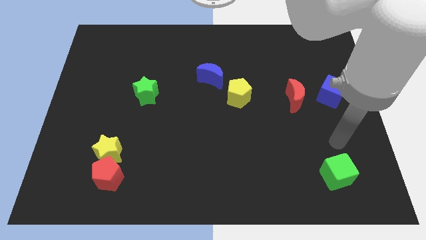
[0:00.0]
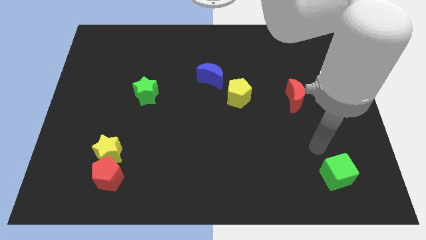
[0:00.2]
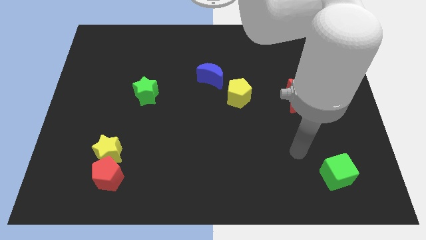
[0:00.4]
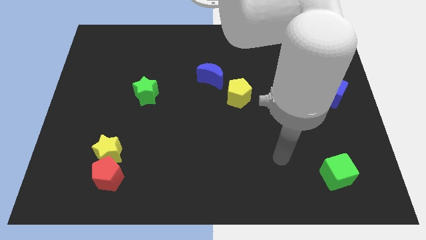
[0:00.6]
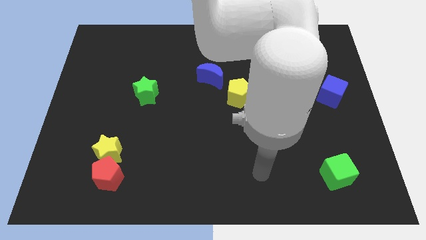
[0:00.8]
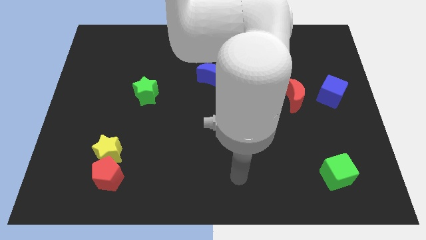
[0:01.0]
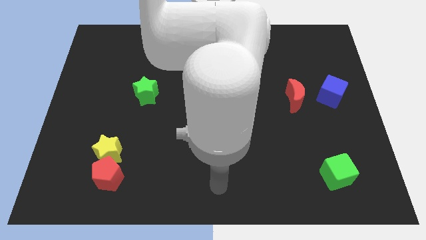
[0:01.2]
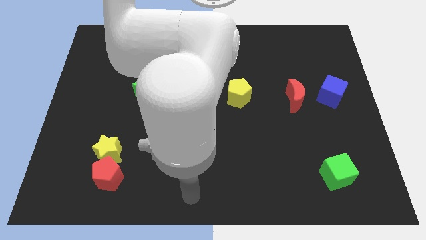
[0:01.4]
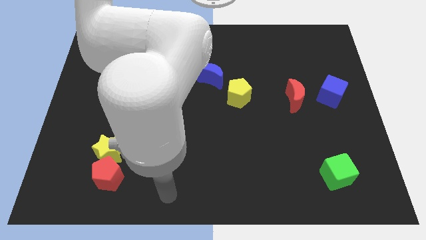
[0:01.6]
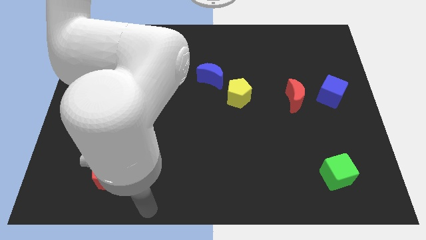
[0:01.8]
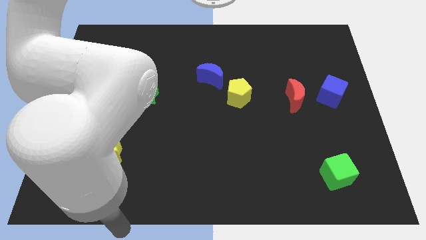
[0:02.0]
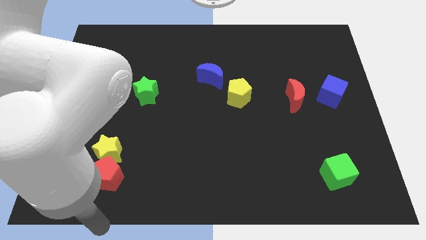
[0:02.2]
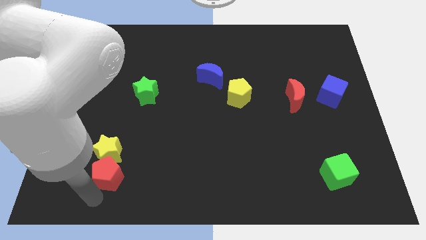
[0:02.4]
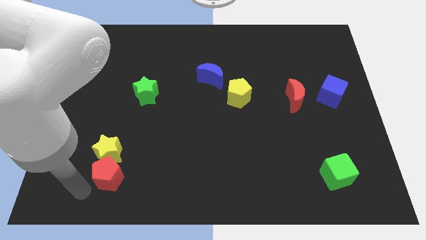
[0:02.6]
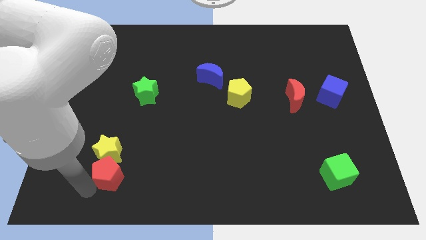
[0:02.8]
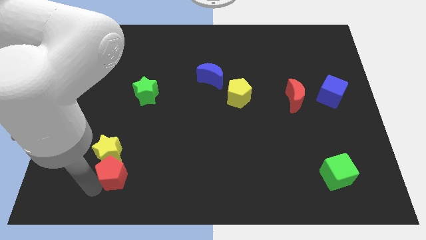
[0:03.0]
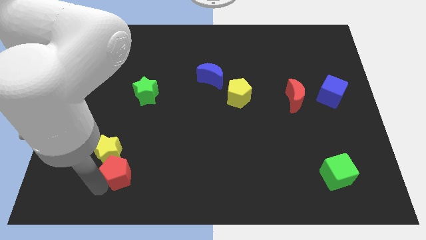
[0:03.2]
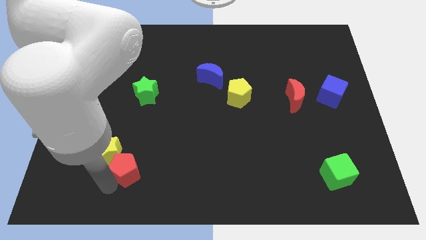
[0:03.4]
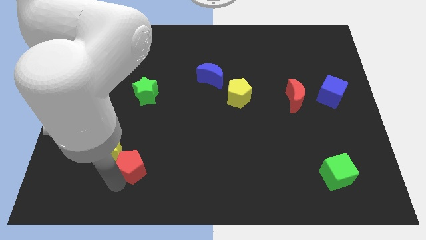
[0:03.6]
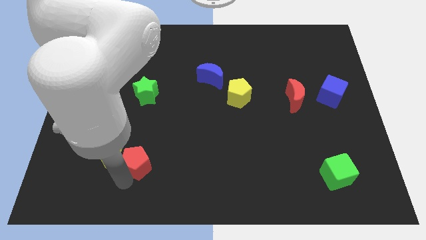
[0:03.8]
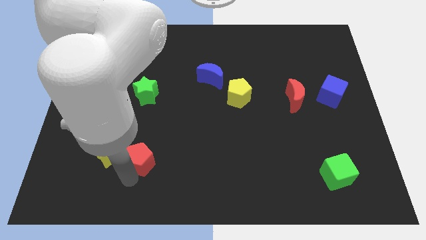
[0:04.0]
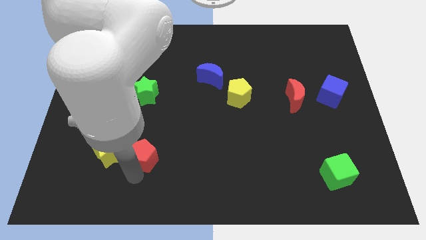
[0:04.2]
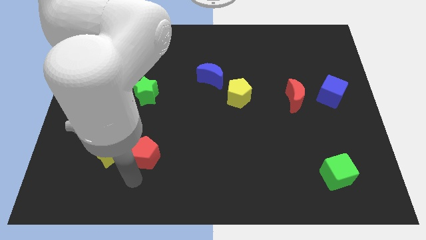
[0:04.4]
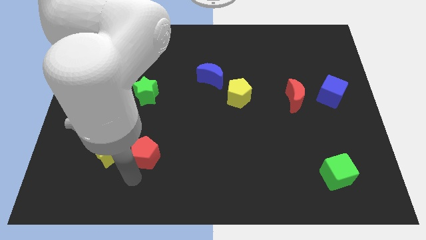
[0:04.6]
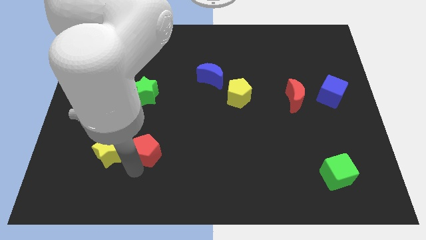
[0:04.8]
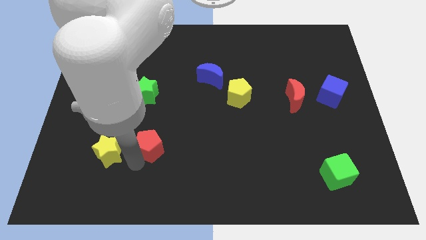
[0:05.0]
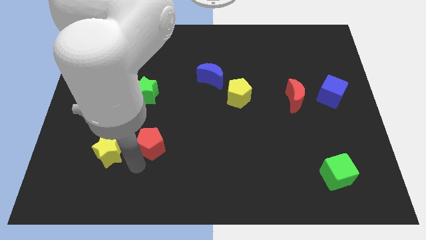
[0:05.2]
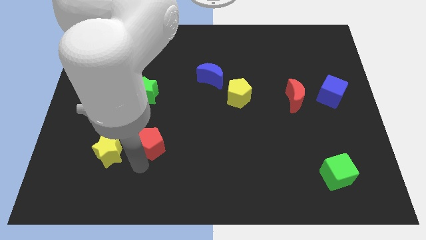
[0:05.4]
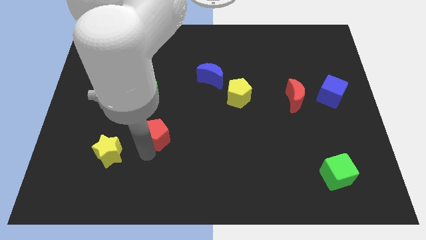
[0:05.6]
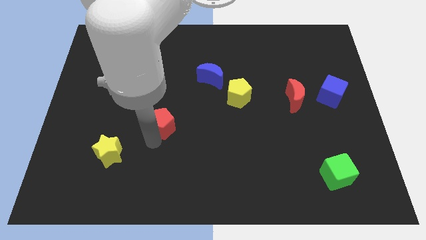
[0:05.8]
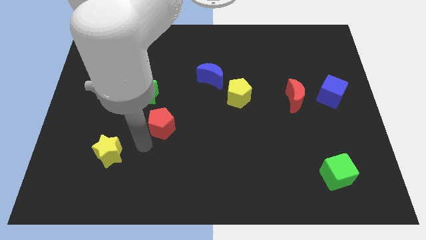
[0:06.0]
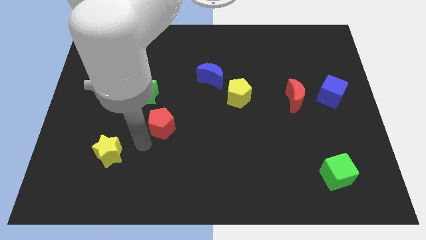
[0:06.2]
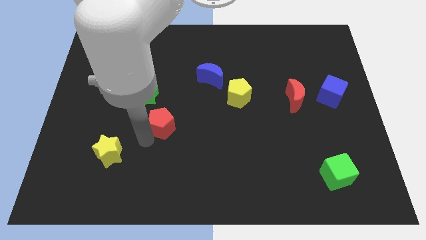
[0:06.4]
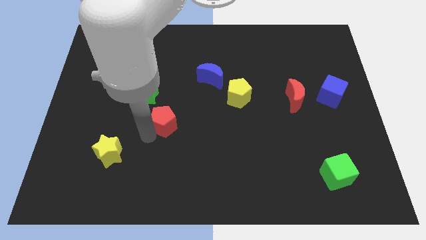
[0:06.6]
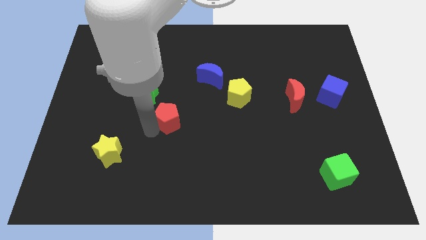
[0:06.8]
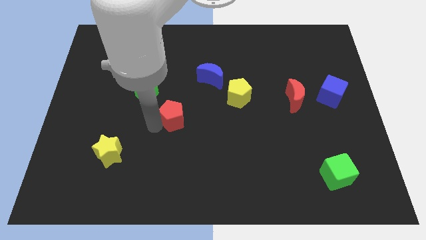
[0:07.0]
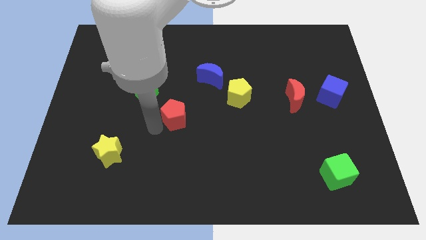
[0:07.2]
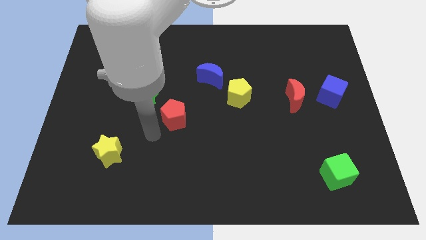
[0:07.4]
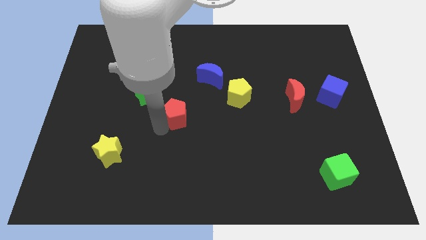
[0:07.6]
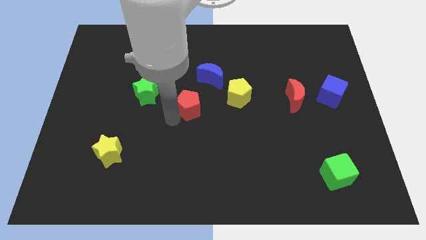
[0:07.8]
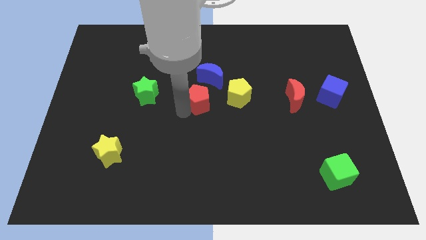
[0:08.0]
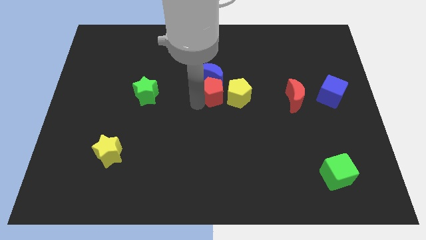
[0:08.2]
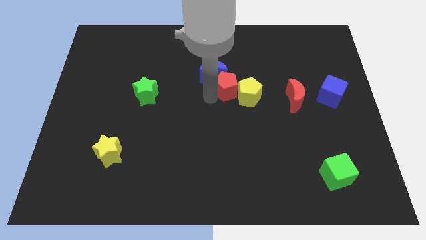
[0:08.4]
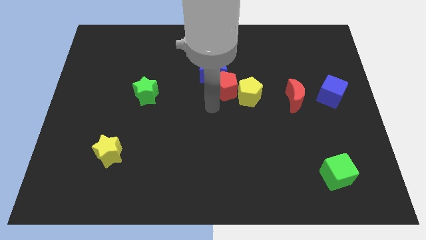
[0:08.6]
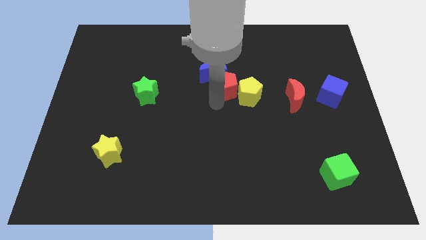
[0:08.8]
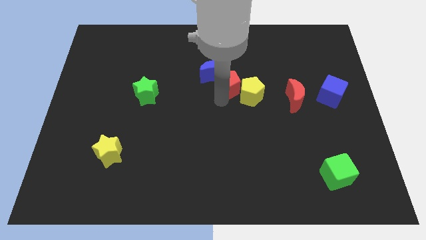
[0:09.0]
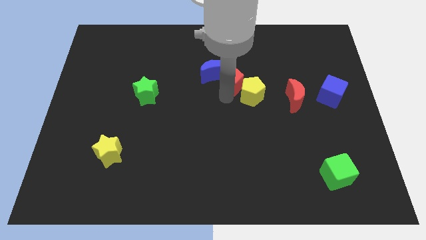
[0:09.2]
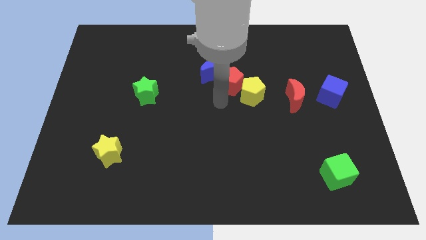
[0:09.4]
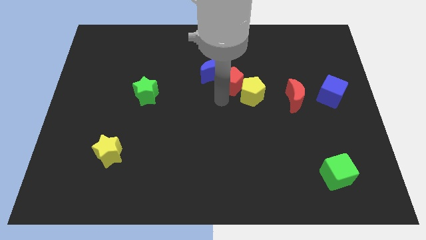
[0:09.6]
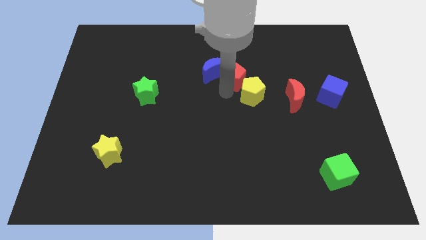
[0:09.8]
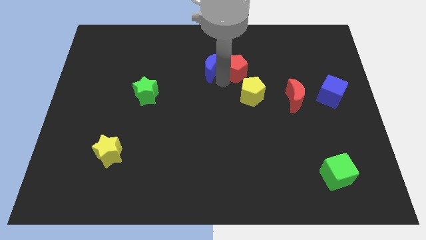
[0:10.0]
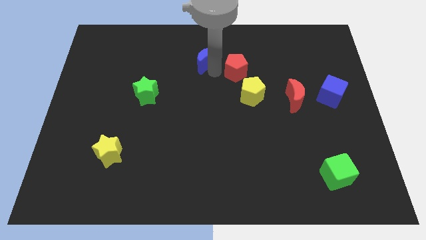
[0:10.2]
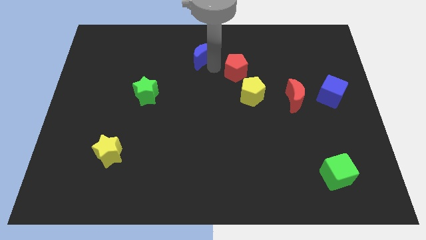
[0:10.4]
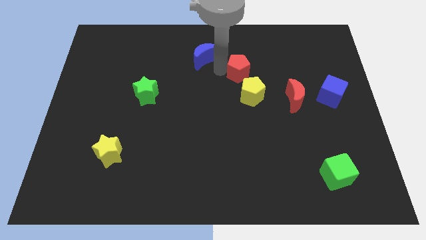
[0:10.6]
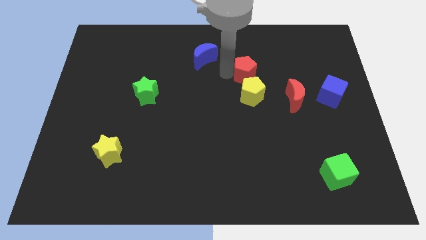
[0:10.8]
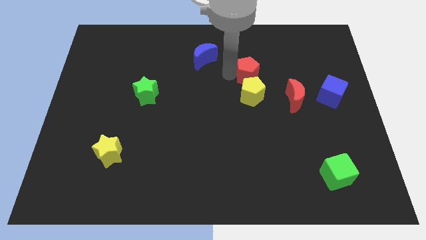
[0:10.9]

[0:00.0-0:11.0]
push the red pentagon diagonally up and to the right of the yellow pentagon

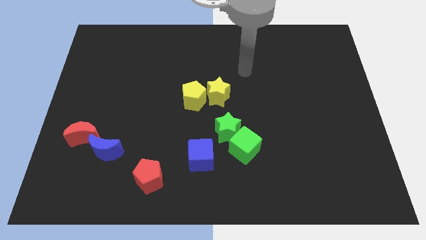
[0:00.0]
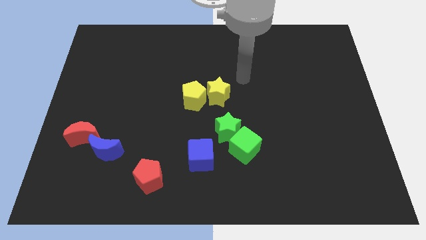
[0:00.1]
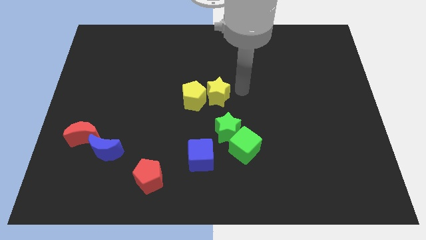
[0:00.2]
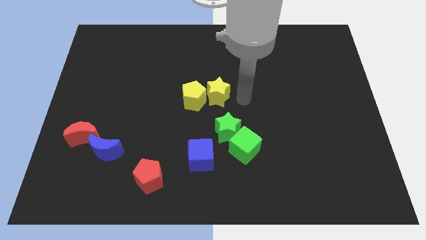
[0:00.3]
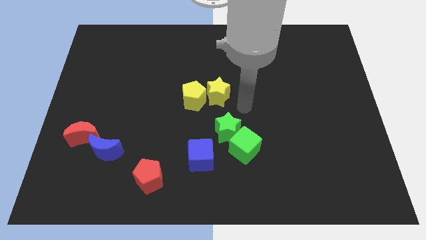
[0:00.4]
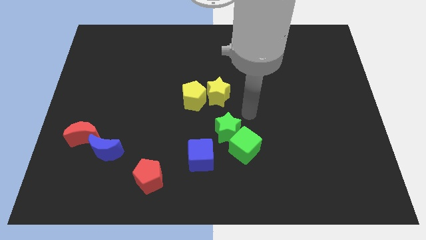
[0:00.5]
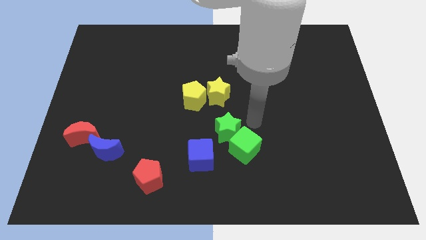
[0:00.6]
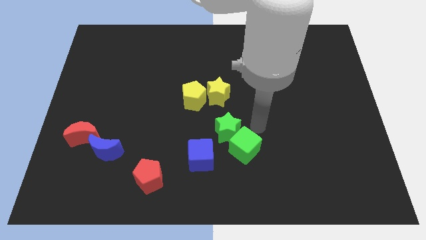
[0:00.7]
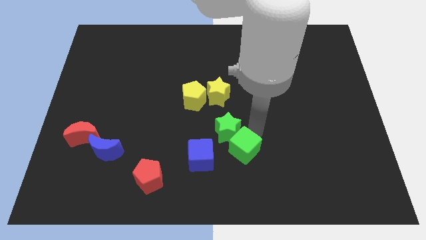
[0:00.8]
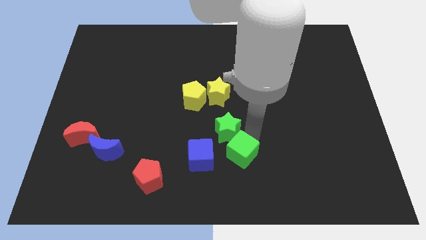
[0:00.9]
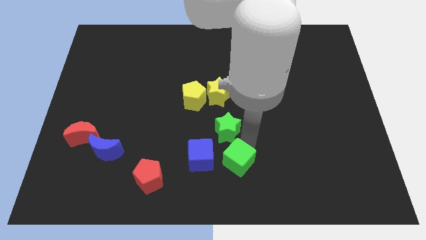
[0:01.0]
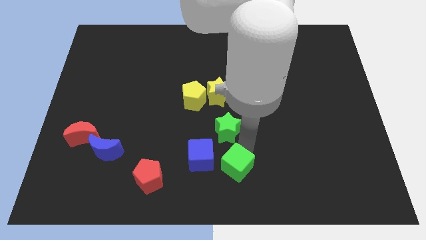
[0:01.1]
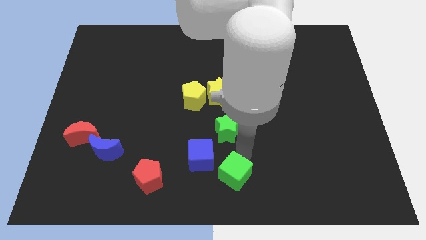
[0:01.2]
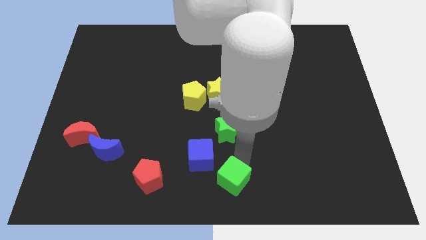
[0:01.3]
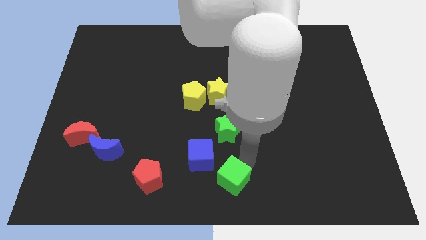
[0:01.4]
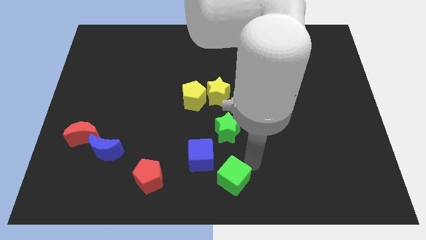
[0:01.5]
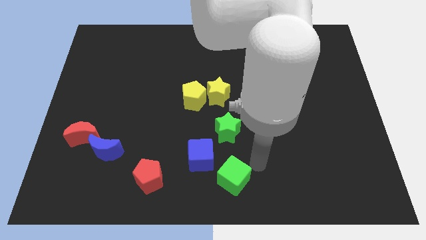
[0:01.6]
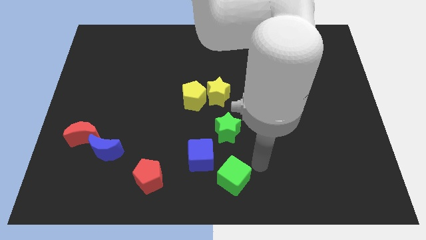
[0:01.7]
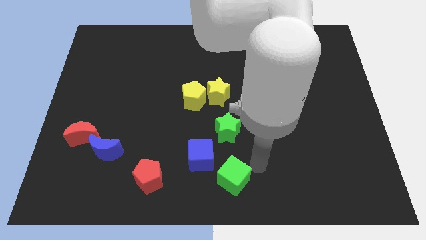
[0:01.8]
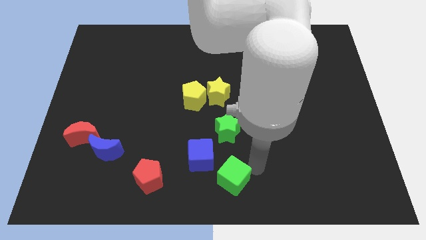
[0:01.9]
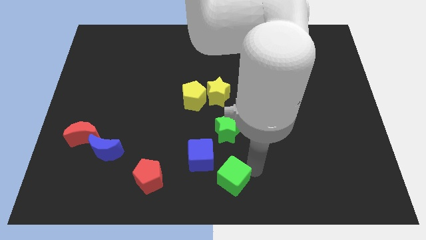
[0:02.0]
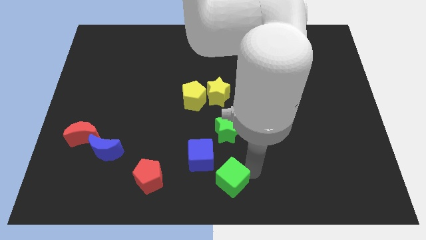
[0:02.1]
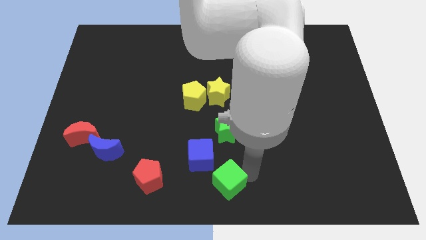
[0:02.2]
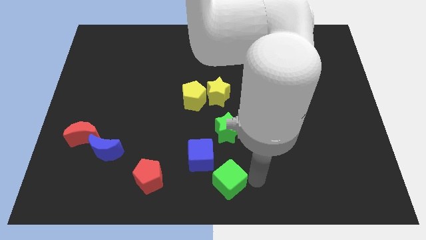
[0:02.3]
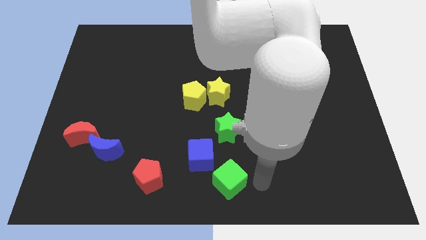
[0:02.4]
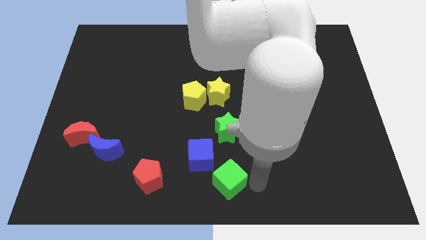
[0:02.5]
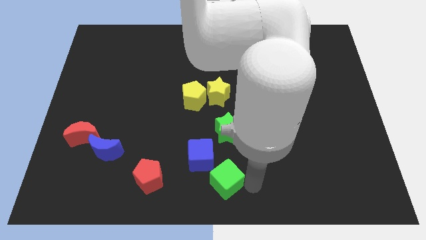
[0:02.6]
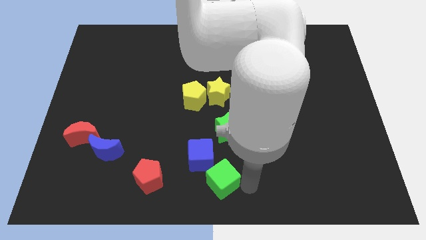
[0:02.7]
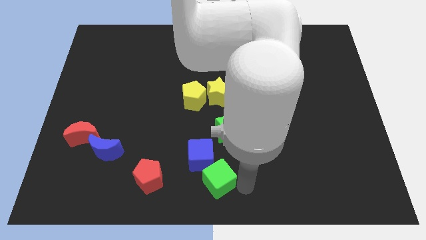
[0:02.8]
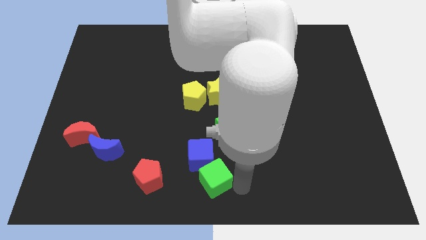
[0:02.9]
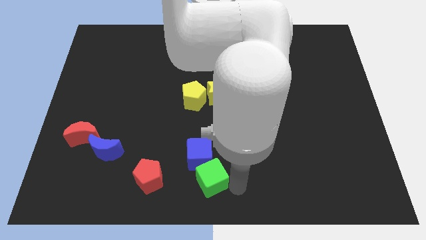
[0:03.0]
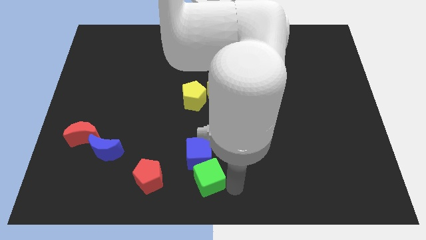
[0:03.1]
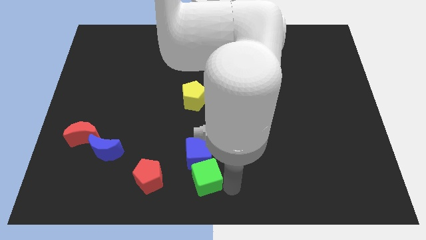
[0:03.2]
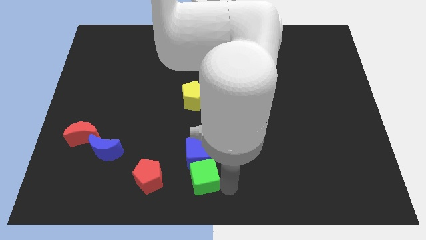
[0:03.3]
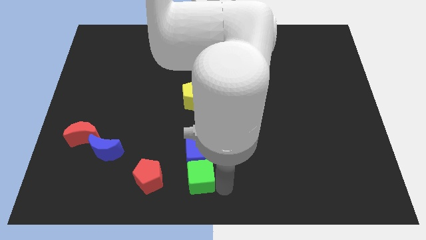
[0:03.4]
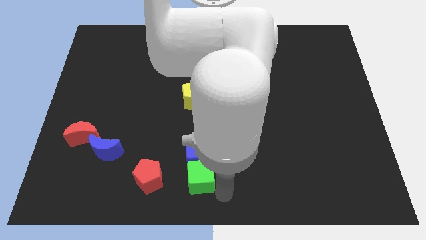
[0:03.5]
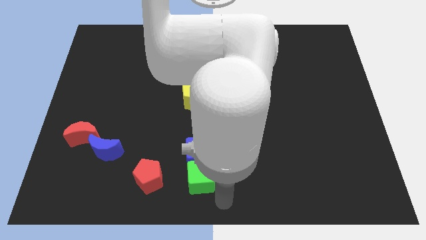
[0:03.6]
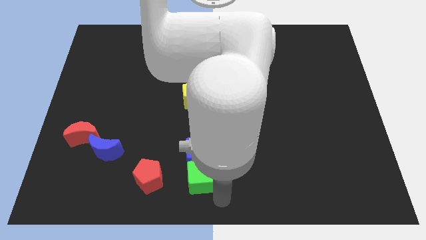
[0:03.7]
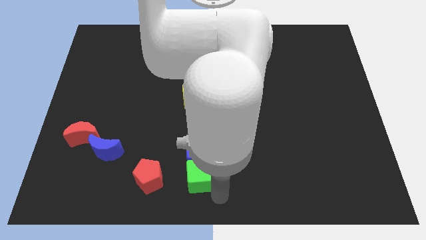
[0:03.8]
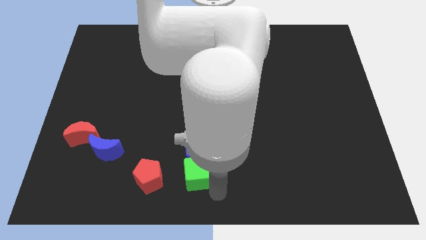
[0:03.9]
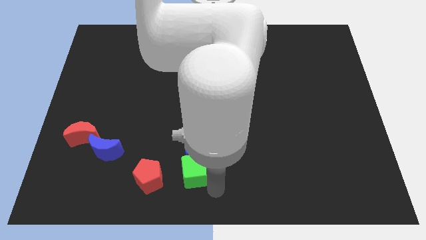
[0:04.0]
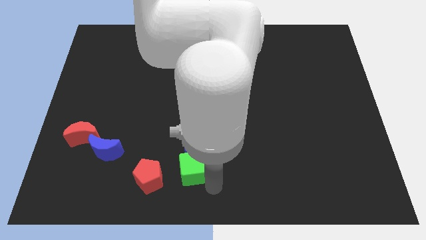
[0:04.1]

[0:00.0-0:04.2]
put the green cube to the top right side of the red pentagon
